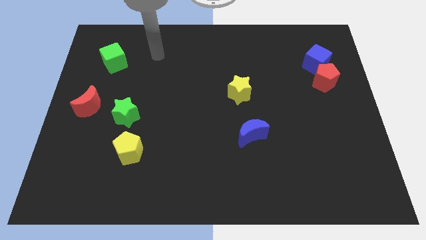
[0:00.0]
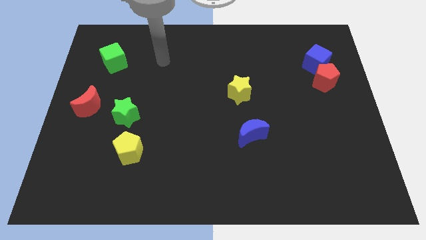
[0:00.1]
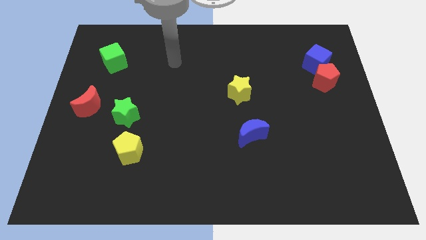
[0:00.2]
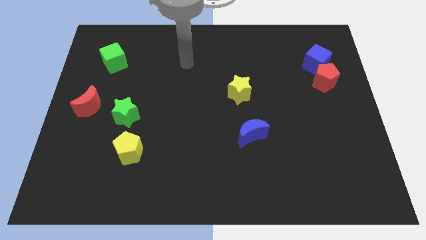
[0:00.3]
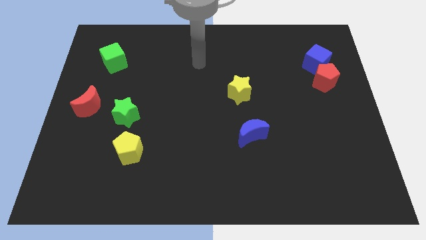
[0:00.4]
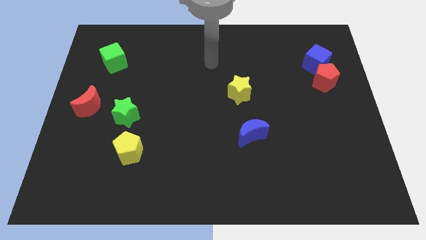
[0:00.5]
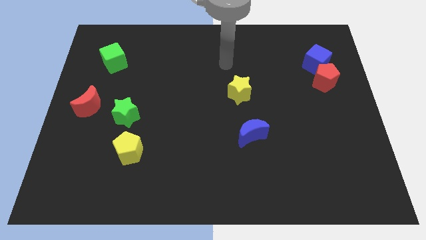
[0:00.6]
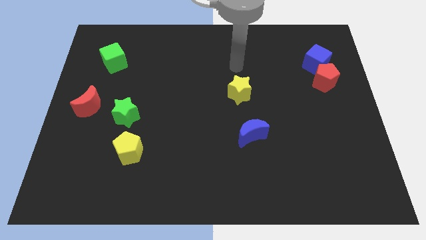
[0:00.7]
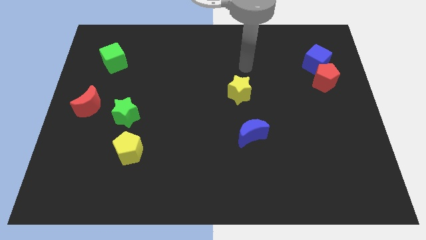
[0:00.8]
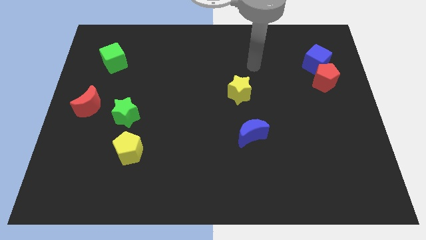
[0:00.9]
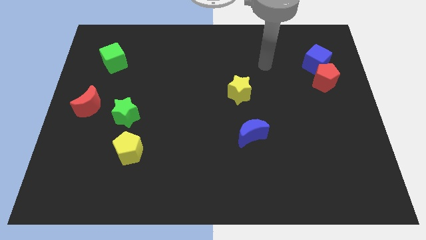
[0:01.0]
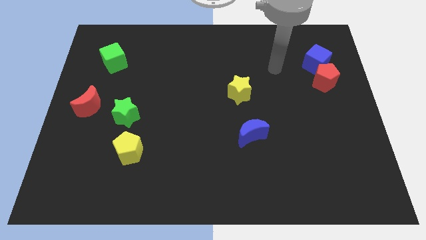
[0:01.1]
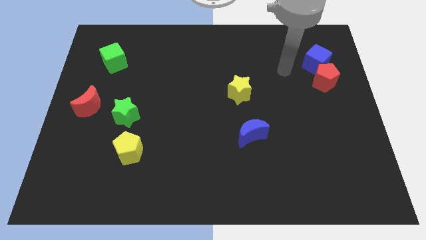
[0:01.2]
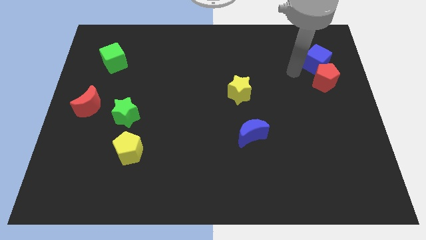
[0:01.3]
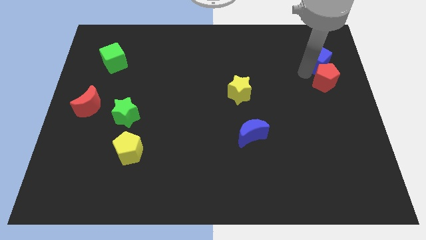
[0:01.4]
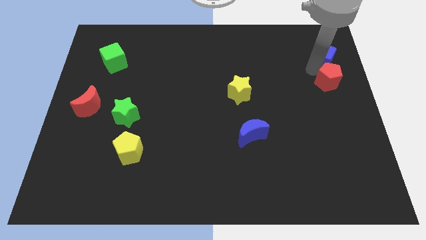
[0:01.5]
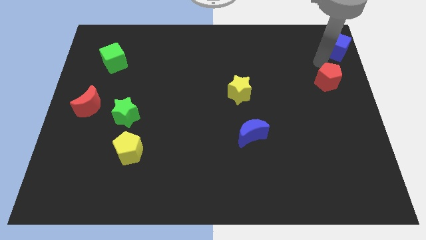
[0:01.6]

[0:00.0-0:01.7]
pull the red pentagon apart from the blue cube

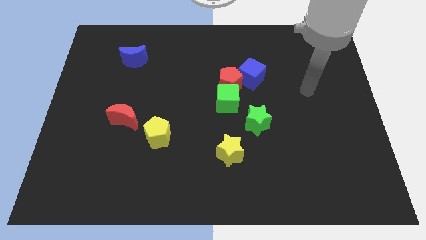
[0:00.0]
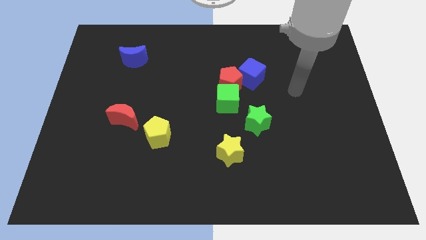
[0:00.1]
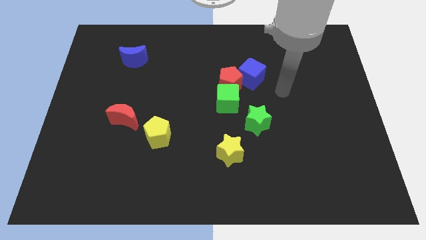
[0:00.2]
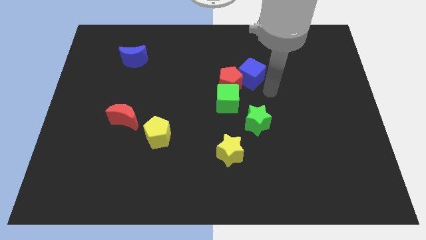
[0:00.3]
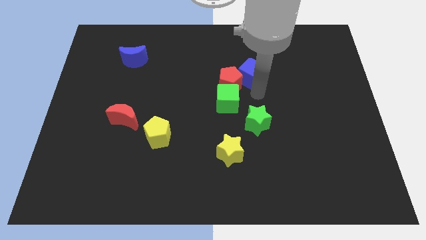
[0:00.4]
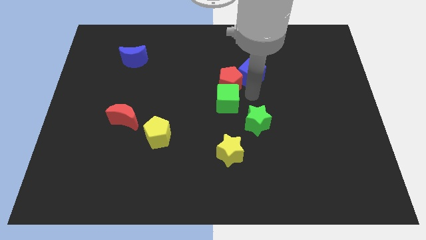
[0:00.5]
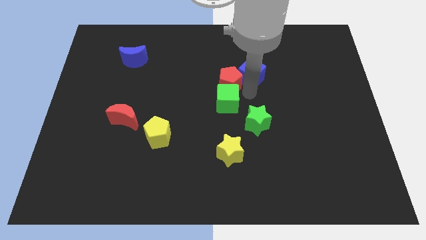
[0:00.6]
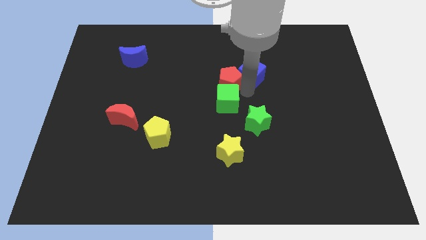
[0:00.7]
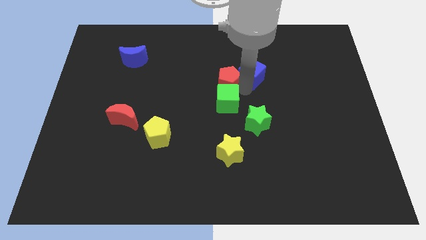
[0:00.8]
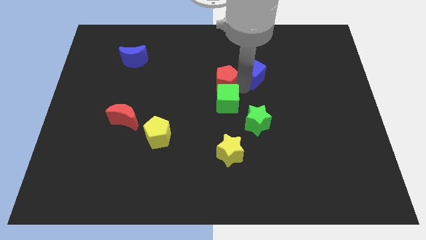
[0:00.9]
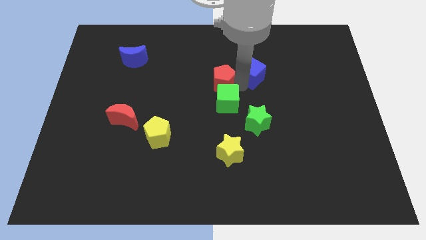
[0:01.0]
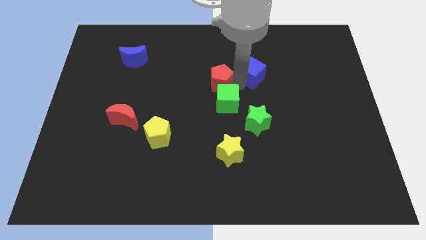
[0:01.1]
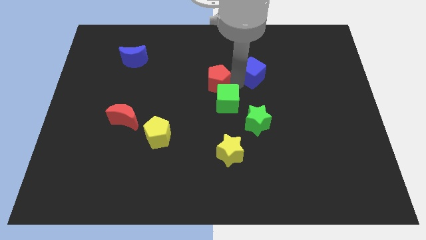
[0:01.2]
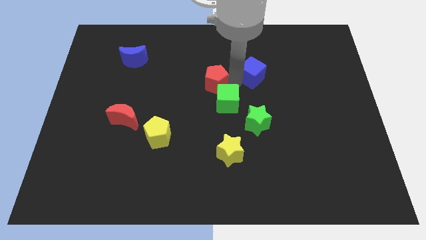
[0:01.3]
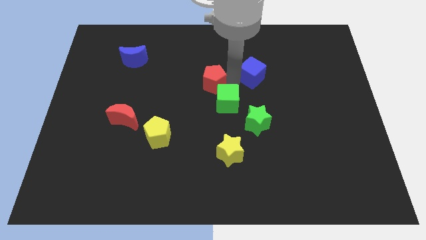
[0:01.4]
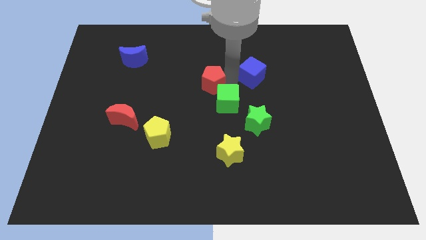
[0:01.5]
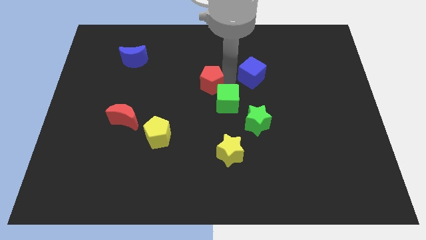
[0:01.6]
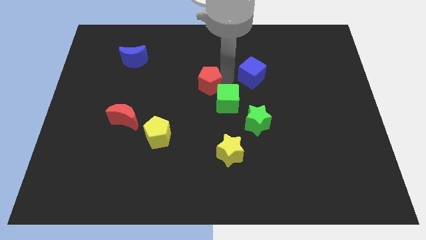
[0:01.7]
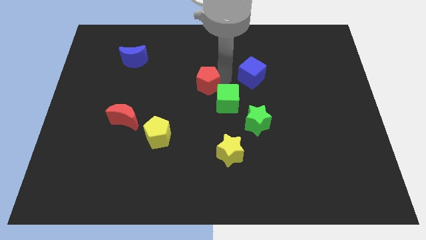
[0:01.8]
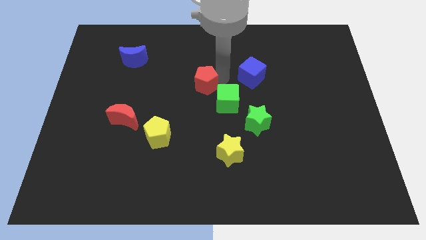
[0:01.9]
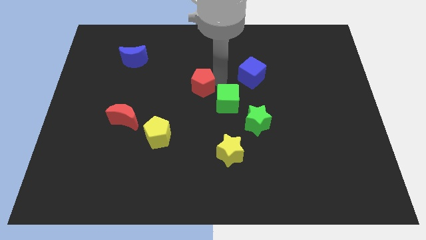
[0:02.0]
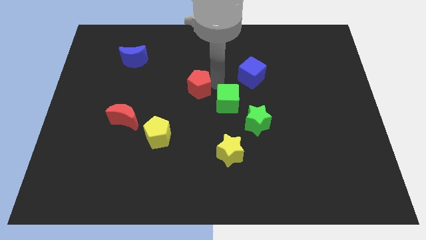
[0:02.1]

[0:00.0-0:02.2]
pull the red pentagon apart from the green cube and blue cube

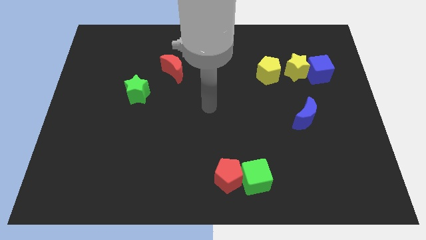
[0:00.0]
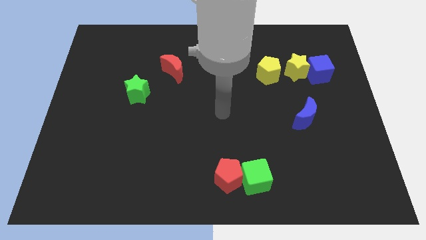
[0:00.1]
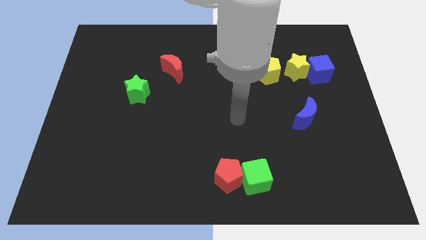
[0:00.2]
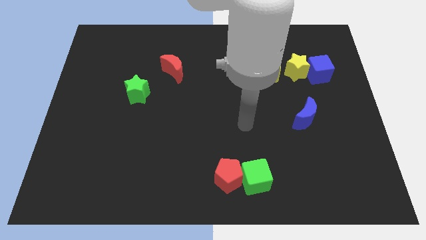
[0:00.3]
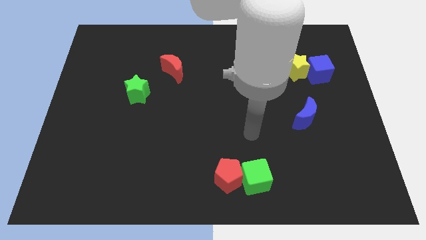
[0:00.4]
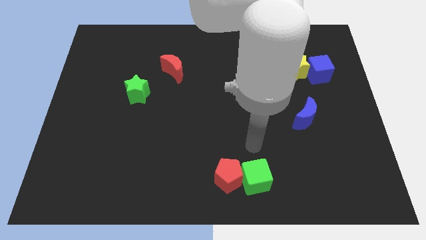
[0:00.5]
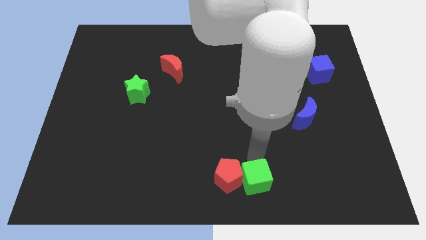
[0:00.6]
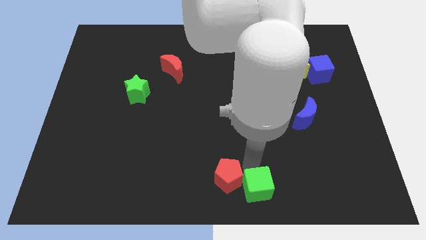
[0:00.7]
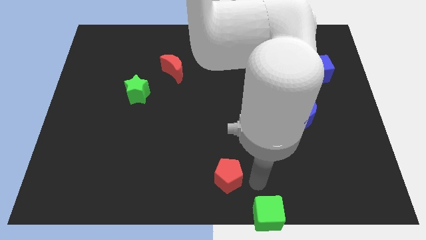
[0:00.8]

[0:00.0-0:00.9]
separate the red pentagon from the green cube

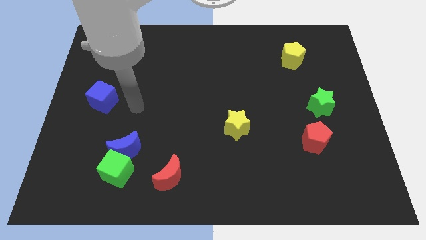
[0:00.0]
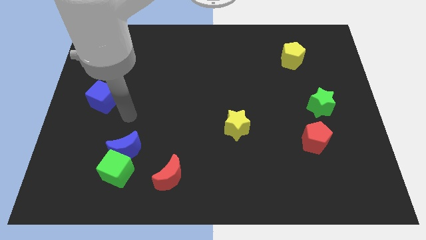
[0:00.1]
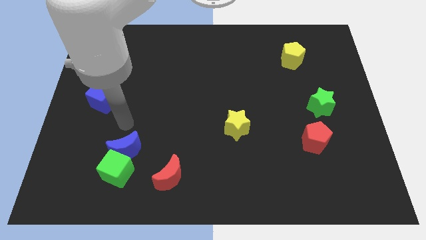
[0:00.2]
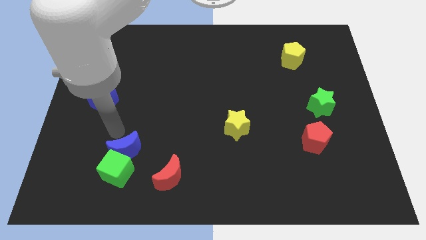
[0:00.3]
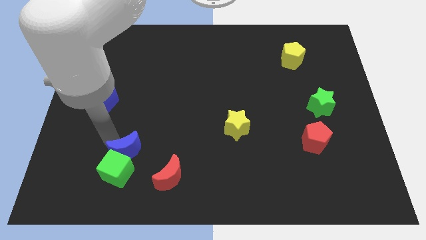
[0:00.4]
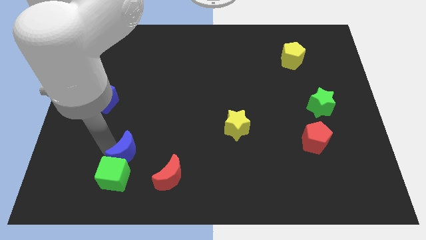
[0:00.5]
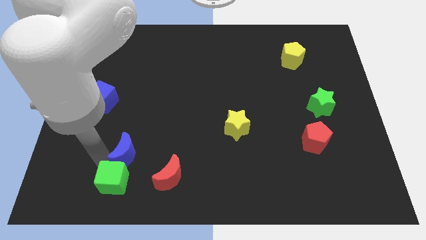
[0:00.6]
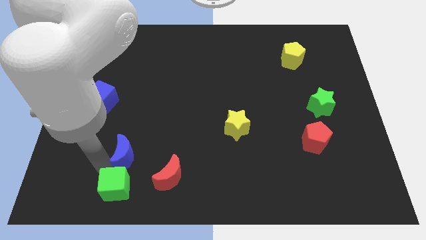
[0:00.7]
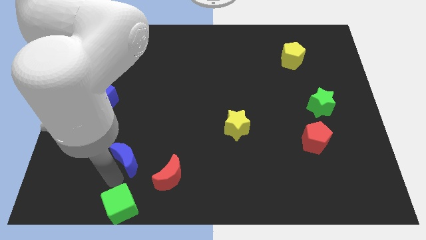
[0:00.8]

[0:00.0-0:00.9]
pull the blue moon apart from the green cube

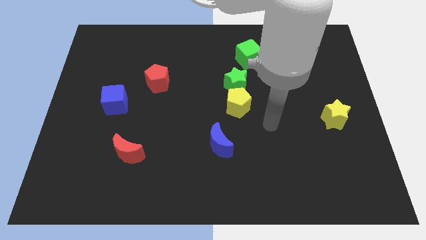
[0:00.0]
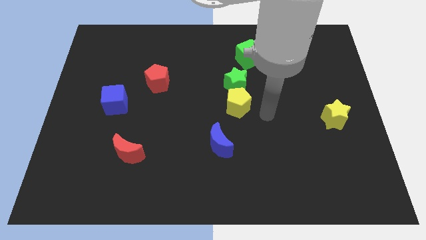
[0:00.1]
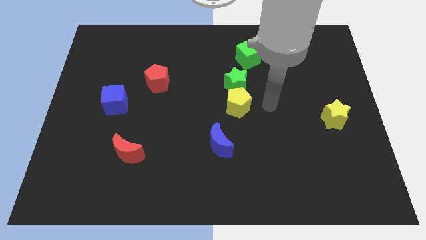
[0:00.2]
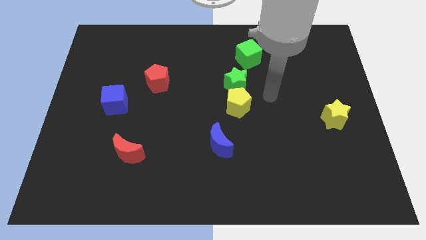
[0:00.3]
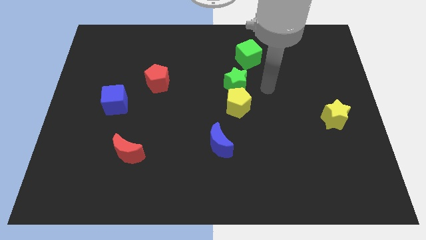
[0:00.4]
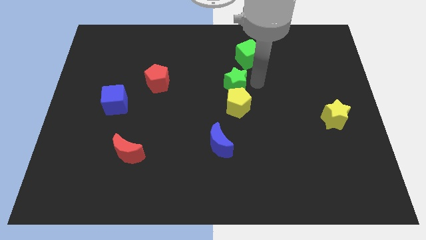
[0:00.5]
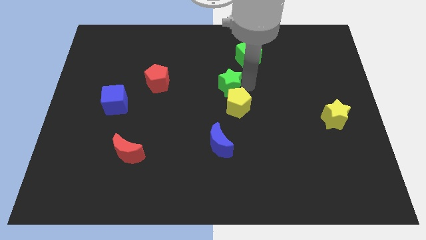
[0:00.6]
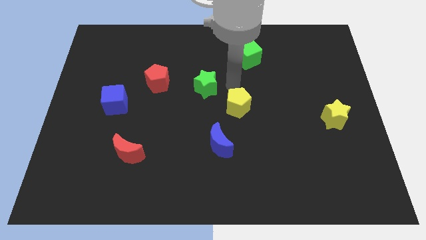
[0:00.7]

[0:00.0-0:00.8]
separate the yellow pentagon from the green star

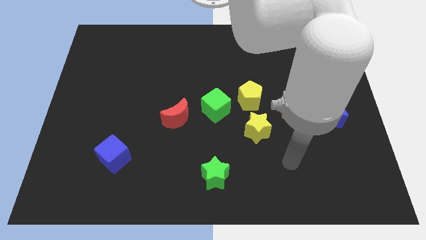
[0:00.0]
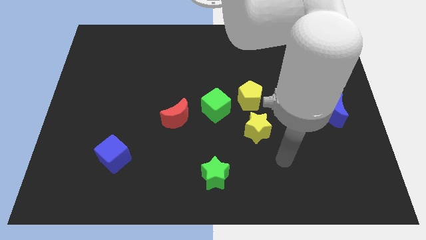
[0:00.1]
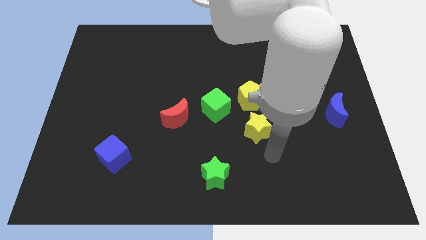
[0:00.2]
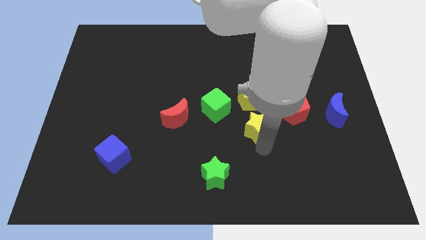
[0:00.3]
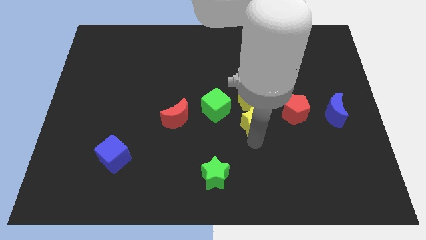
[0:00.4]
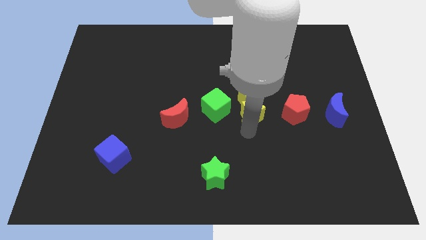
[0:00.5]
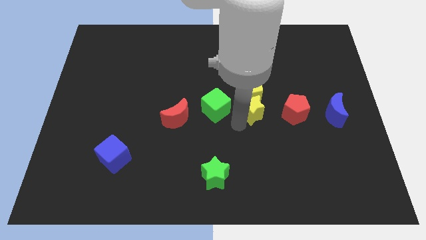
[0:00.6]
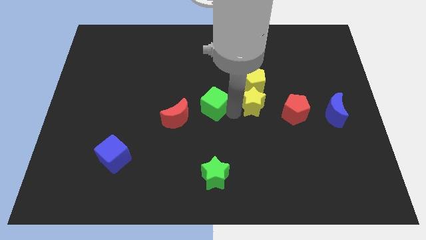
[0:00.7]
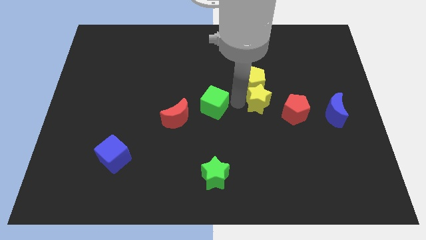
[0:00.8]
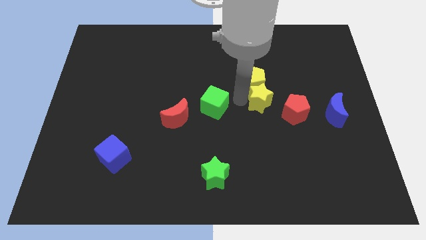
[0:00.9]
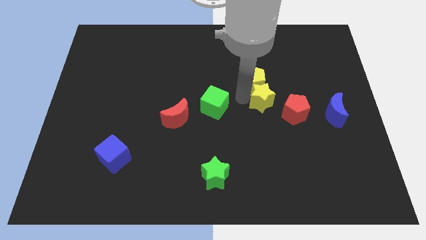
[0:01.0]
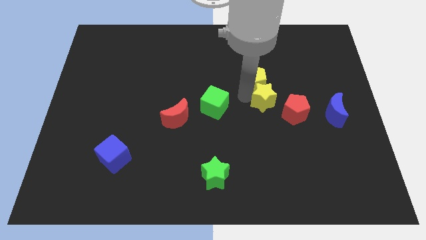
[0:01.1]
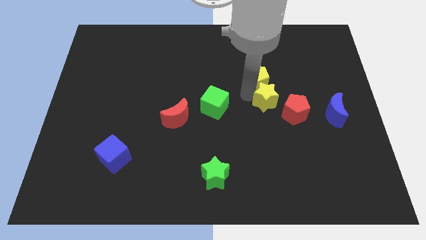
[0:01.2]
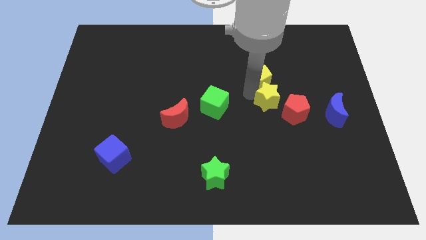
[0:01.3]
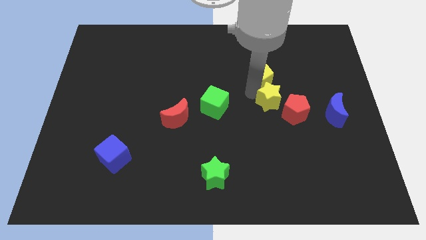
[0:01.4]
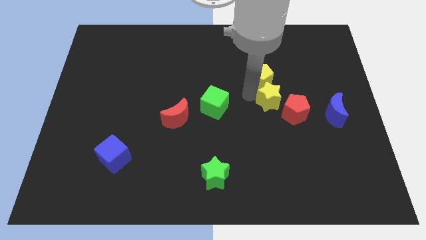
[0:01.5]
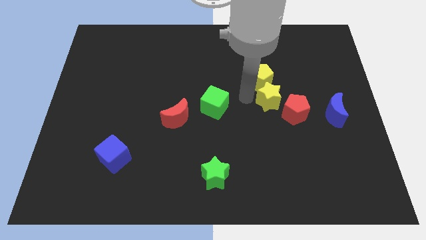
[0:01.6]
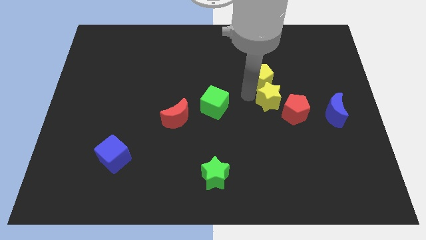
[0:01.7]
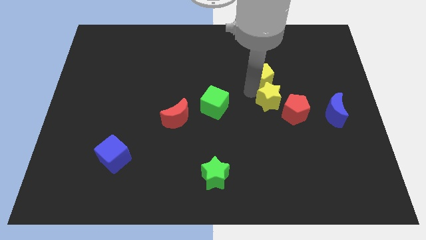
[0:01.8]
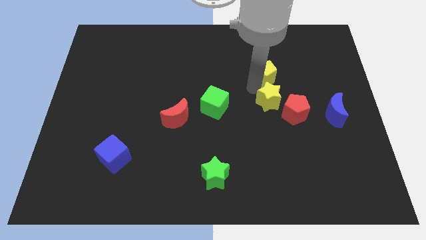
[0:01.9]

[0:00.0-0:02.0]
move the yellow pentagon away from the green cube and yellow star

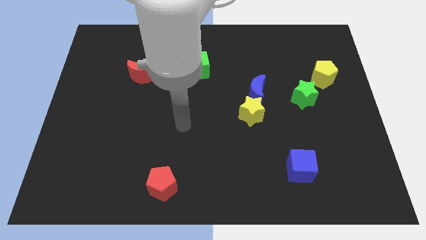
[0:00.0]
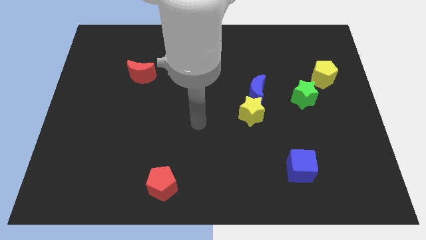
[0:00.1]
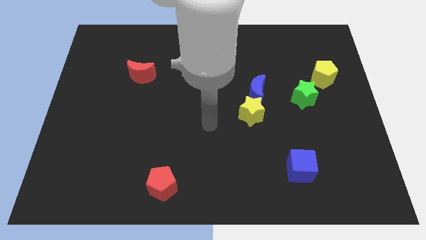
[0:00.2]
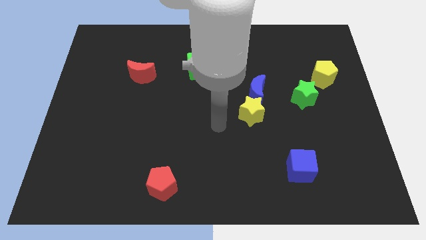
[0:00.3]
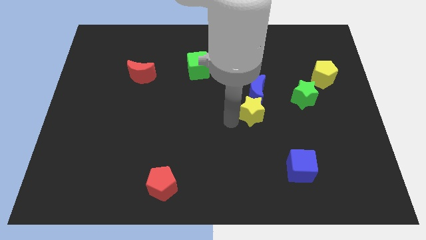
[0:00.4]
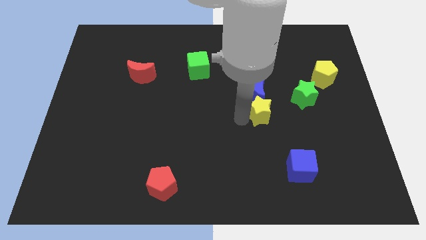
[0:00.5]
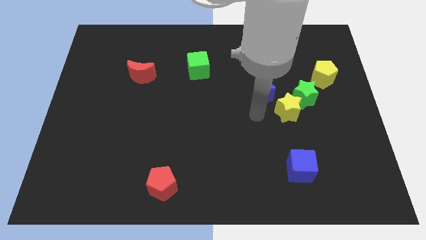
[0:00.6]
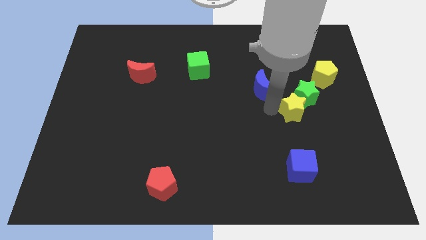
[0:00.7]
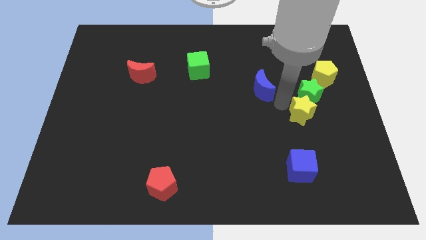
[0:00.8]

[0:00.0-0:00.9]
move the blue moon away from the yellow star
